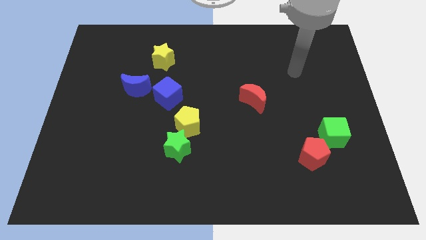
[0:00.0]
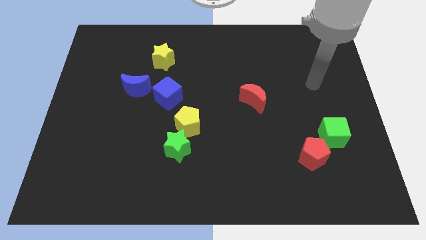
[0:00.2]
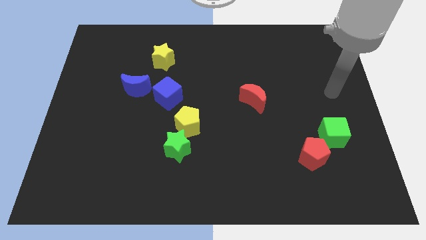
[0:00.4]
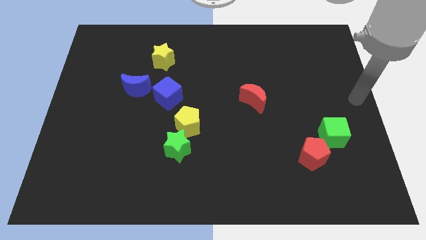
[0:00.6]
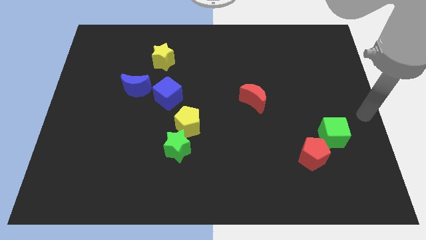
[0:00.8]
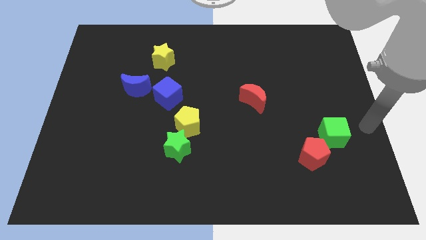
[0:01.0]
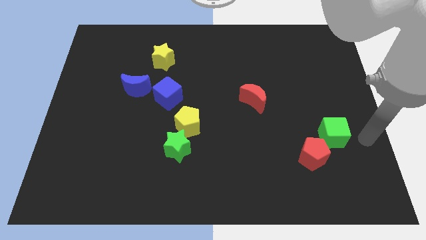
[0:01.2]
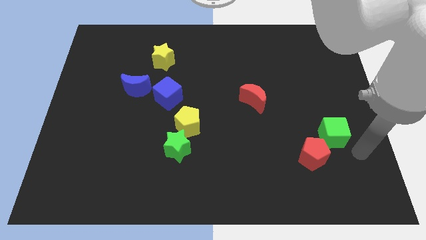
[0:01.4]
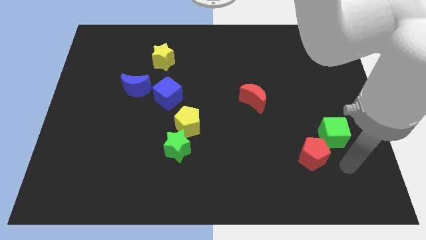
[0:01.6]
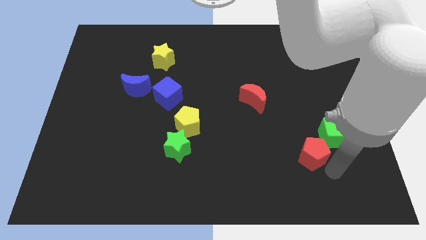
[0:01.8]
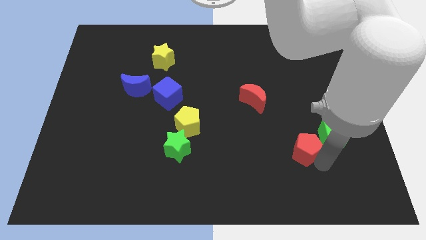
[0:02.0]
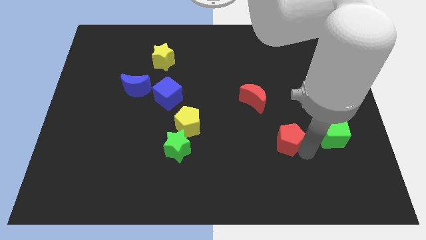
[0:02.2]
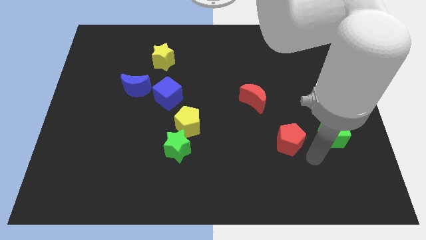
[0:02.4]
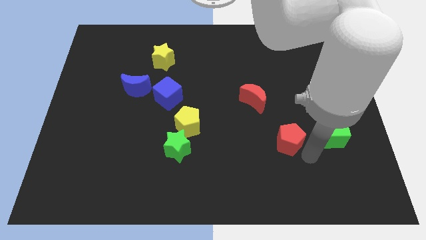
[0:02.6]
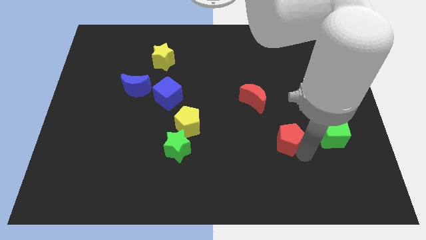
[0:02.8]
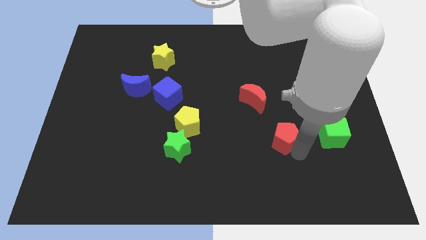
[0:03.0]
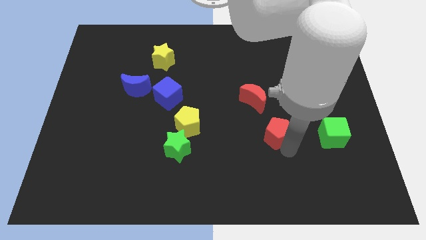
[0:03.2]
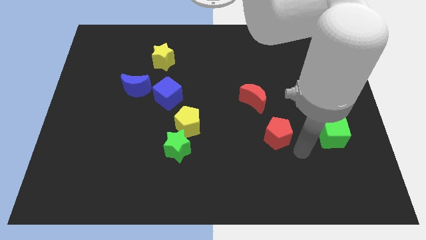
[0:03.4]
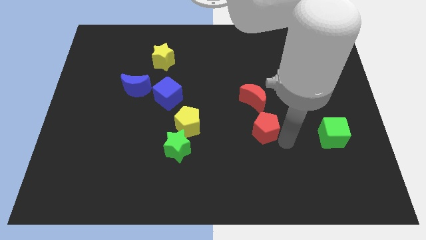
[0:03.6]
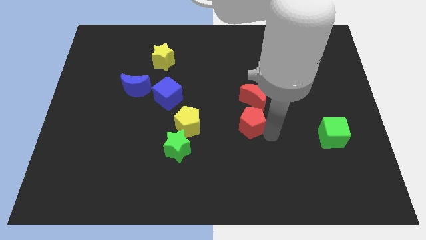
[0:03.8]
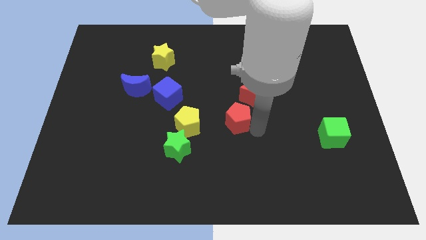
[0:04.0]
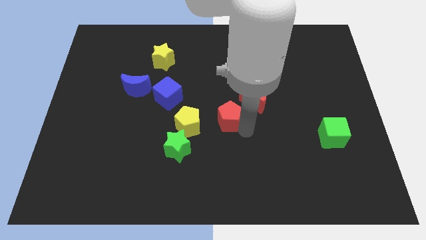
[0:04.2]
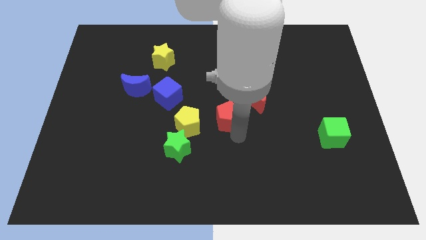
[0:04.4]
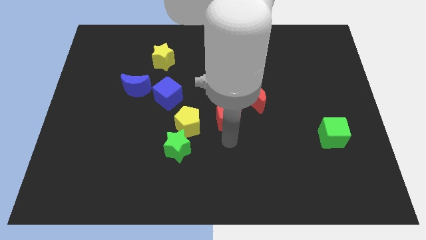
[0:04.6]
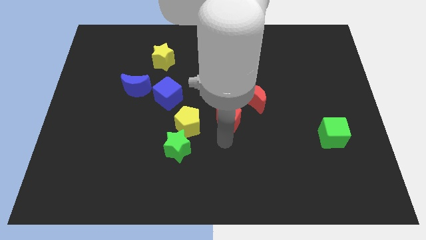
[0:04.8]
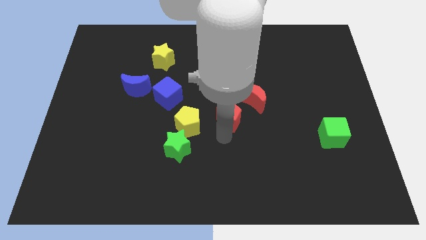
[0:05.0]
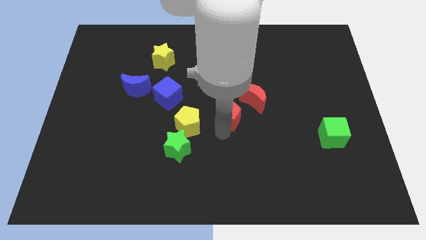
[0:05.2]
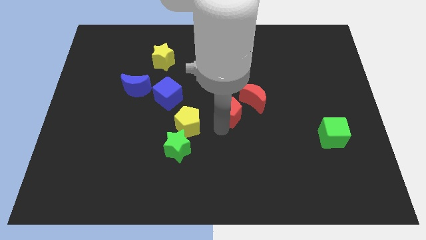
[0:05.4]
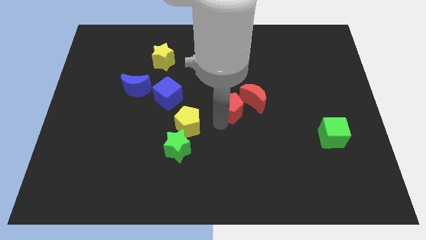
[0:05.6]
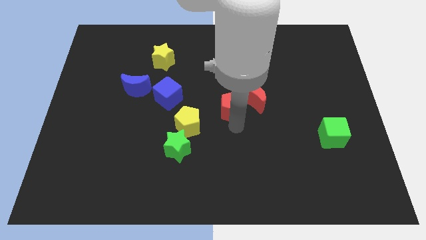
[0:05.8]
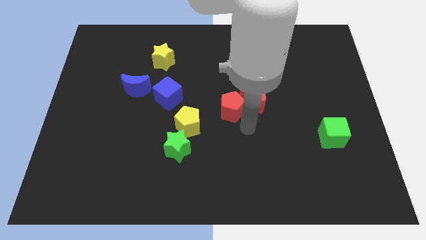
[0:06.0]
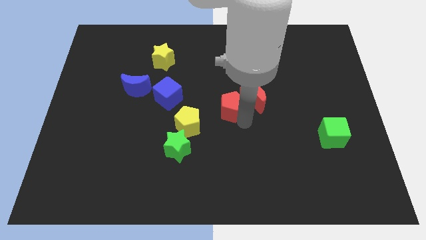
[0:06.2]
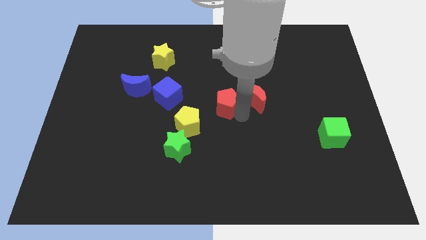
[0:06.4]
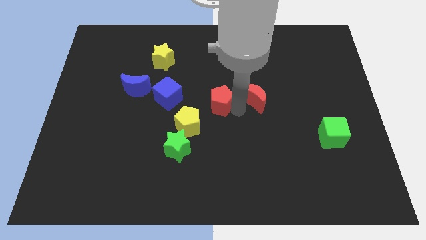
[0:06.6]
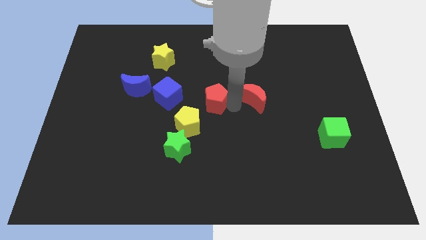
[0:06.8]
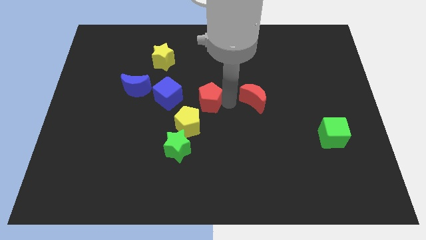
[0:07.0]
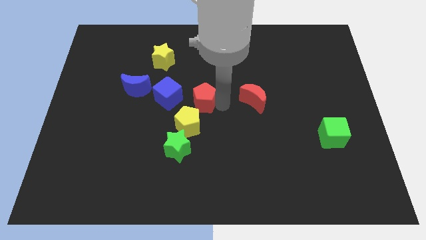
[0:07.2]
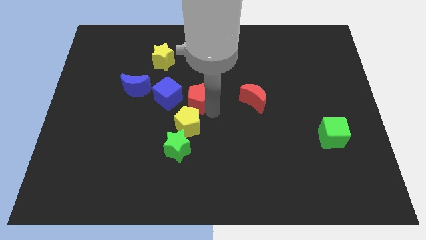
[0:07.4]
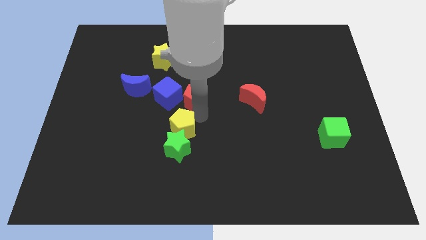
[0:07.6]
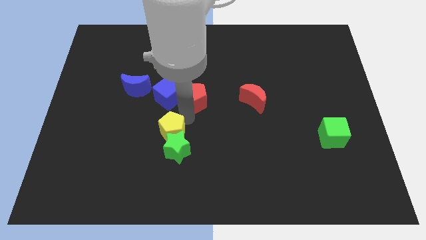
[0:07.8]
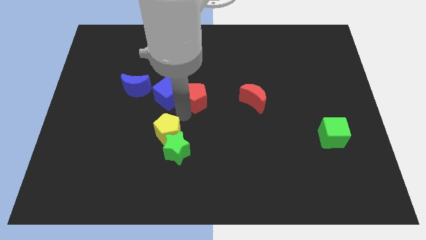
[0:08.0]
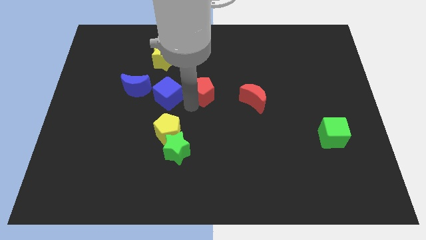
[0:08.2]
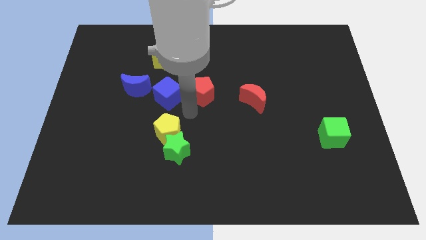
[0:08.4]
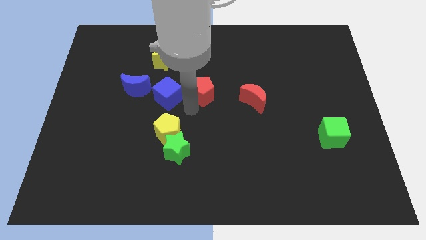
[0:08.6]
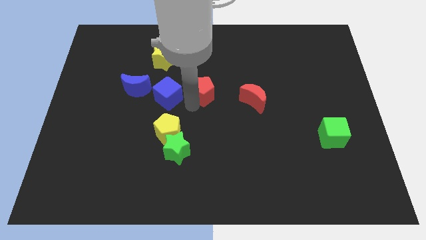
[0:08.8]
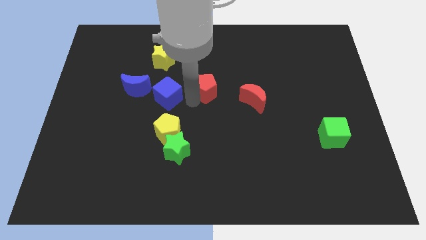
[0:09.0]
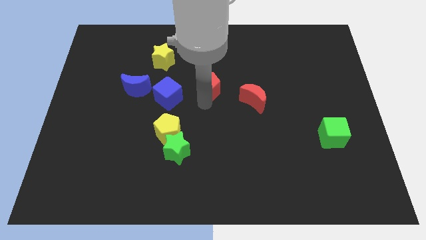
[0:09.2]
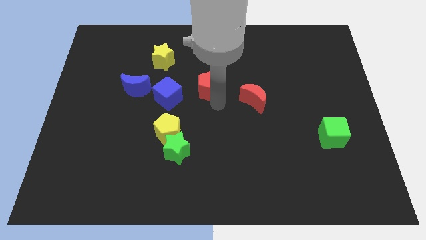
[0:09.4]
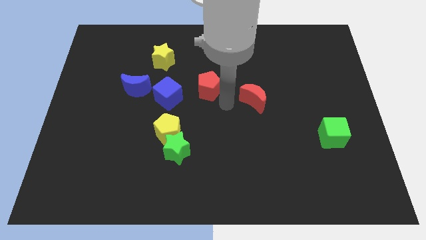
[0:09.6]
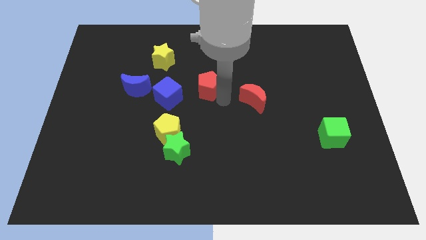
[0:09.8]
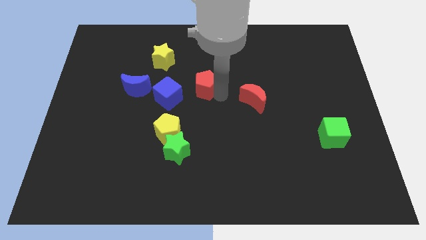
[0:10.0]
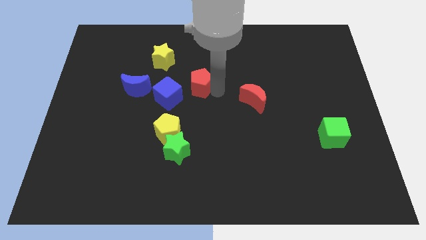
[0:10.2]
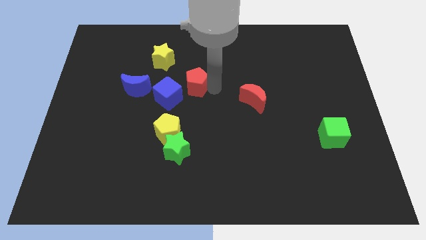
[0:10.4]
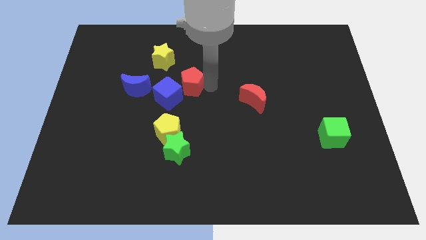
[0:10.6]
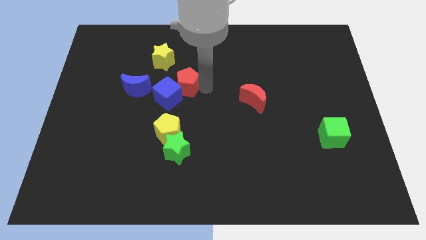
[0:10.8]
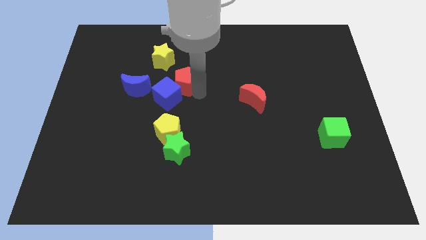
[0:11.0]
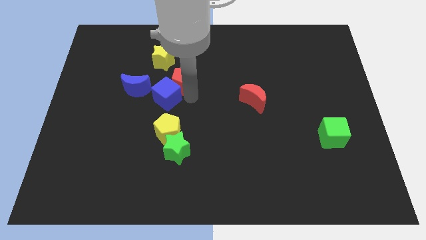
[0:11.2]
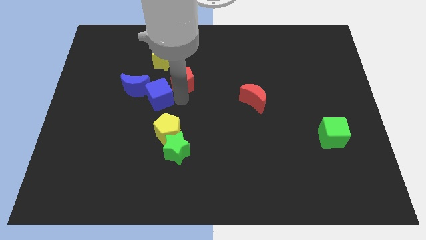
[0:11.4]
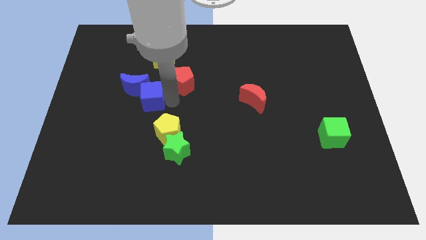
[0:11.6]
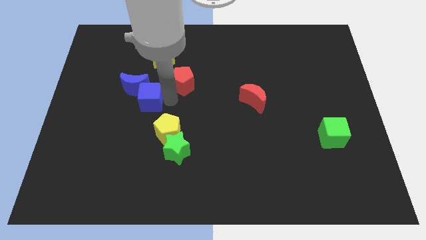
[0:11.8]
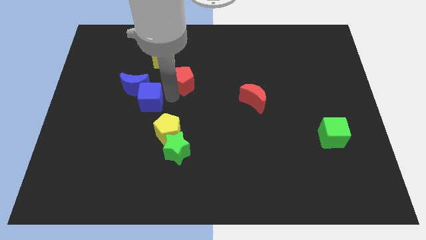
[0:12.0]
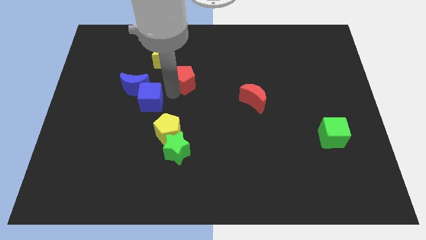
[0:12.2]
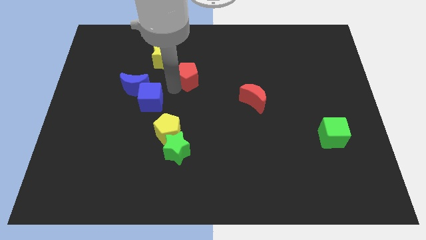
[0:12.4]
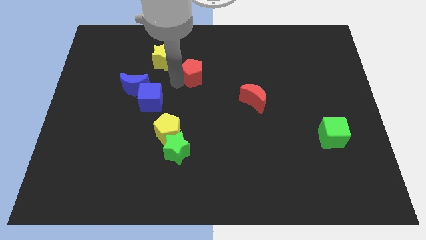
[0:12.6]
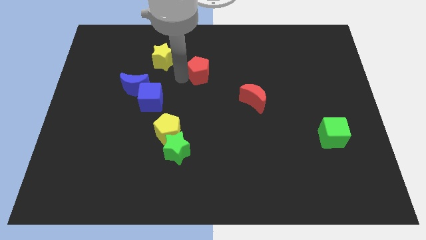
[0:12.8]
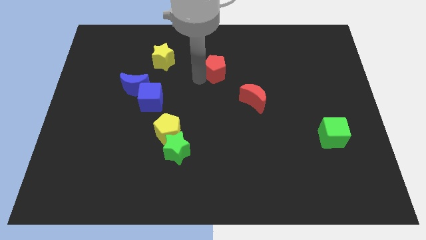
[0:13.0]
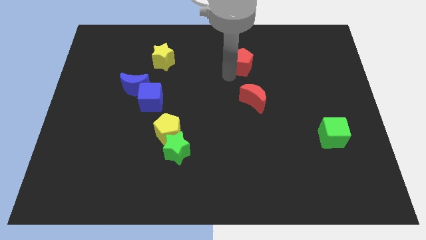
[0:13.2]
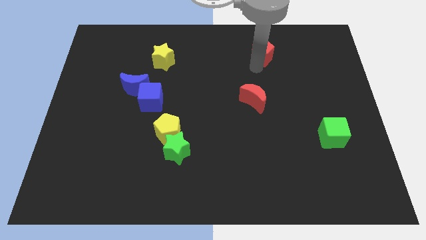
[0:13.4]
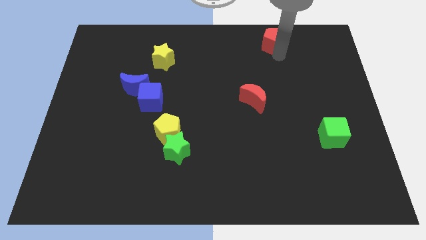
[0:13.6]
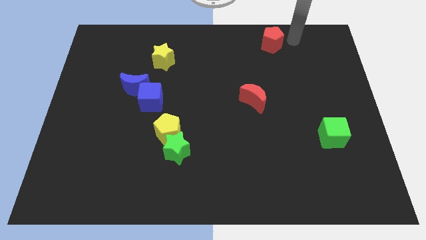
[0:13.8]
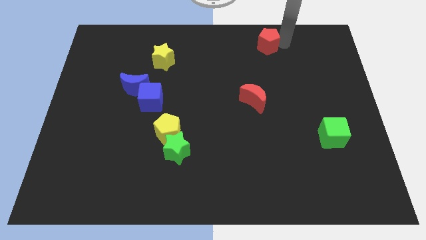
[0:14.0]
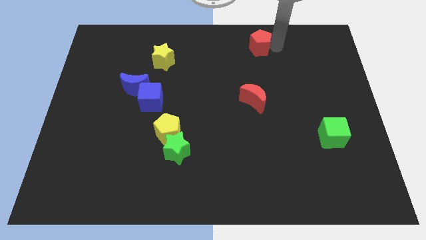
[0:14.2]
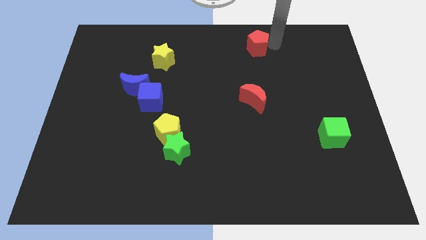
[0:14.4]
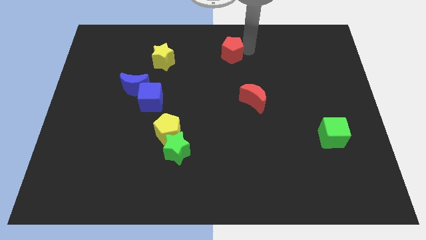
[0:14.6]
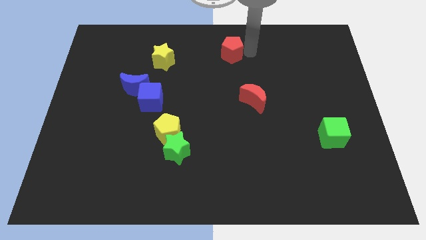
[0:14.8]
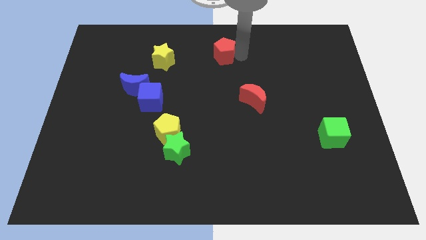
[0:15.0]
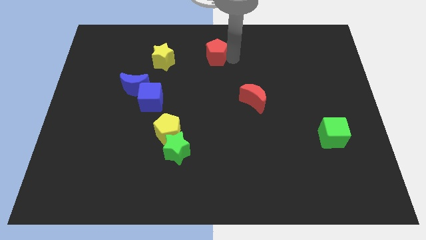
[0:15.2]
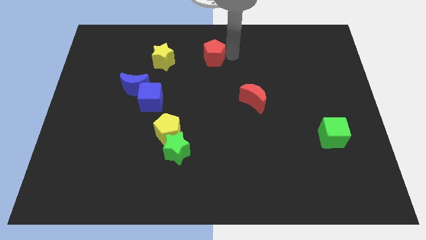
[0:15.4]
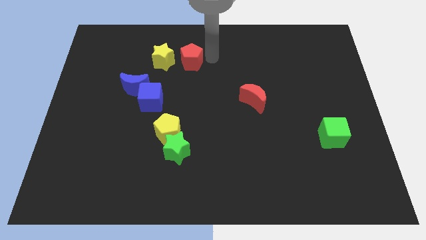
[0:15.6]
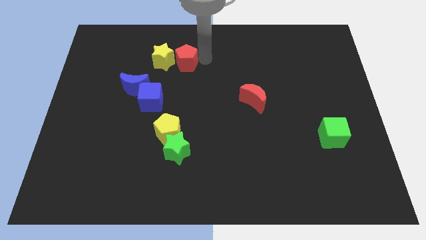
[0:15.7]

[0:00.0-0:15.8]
slide the red pentagon next to the yellow star
